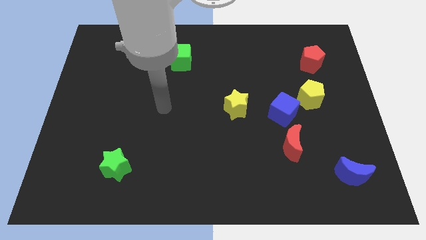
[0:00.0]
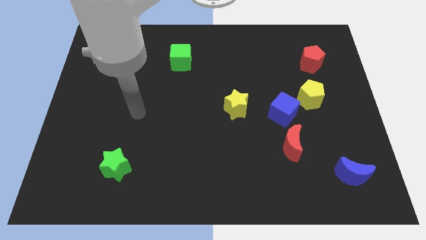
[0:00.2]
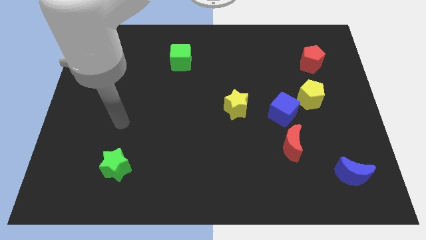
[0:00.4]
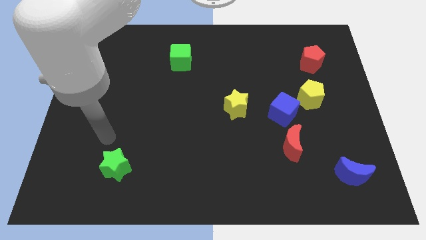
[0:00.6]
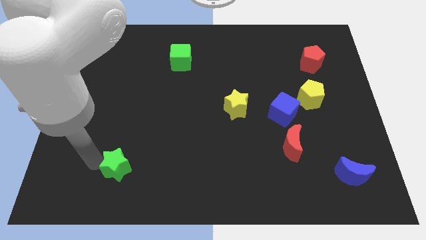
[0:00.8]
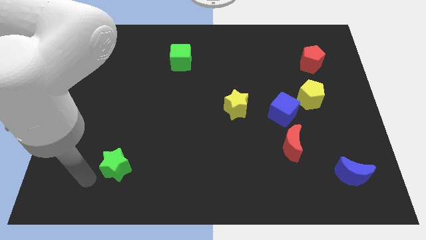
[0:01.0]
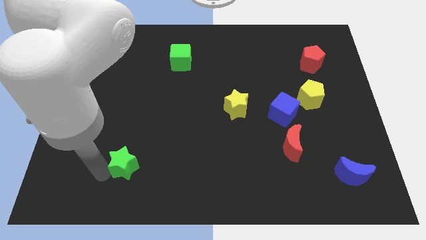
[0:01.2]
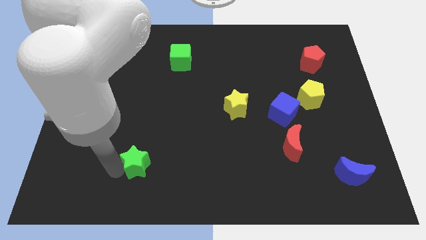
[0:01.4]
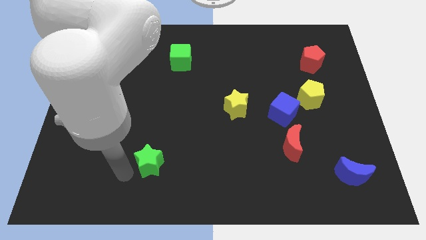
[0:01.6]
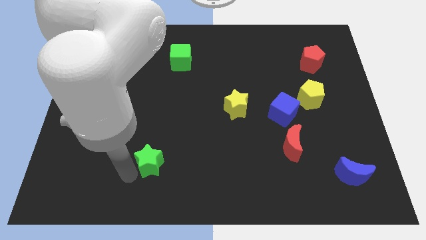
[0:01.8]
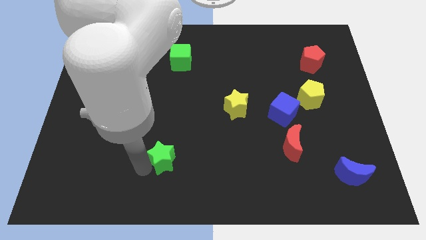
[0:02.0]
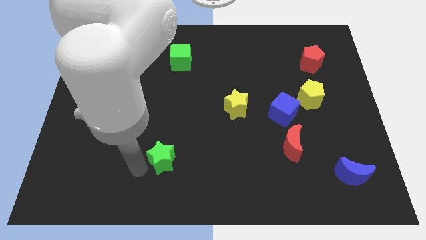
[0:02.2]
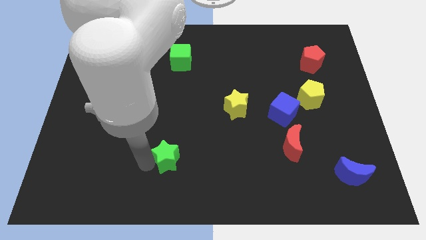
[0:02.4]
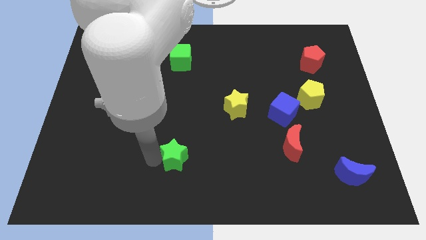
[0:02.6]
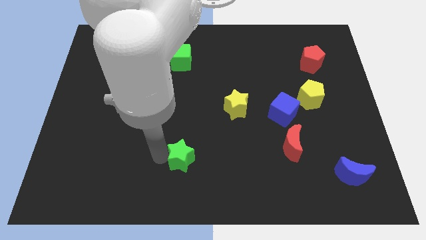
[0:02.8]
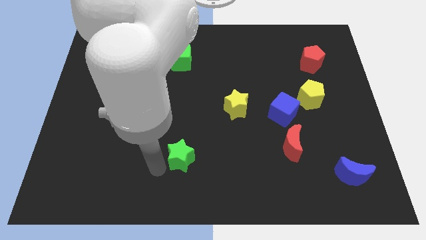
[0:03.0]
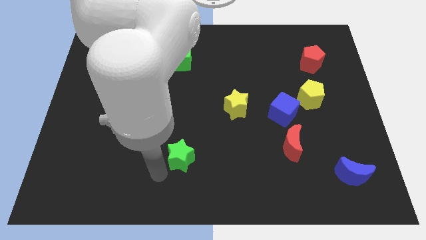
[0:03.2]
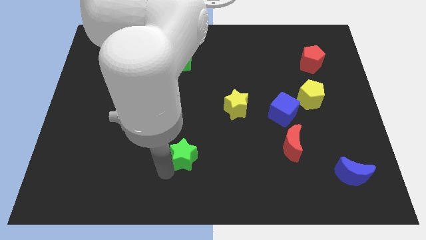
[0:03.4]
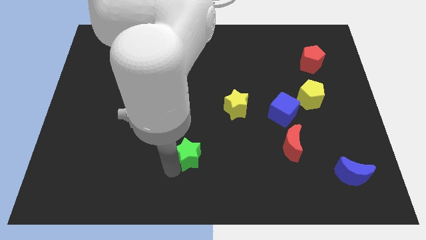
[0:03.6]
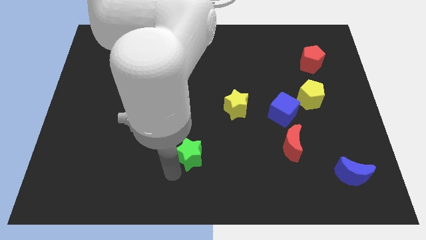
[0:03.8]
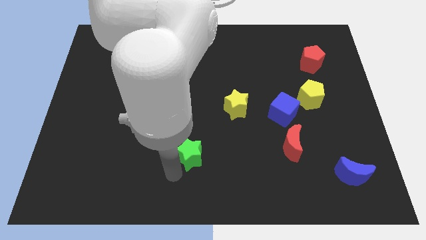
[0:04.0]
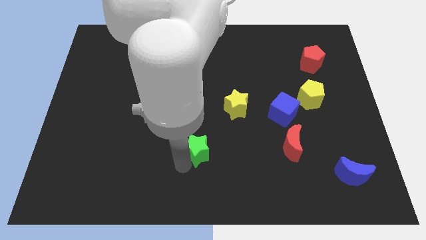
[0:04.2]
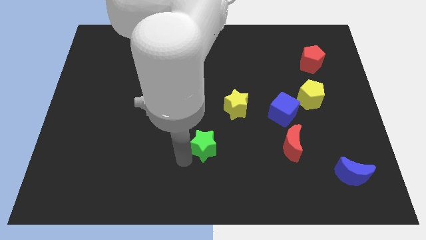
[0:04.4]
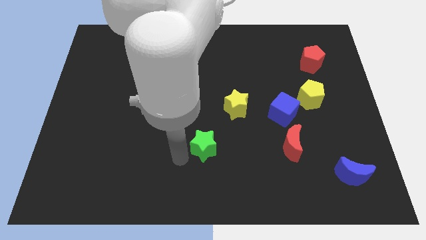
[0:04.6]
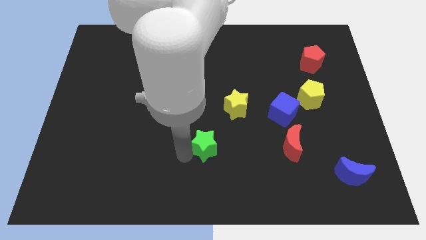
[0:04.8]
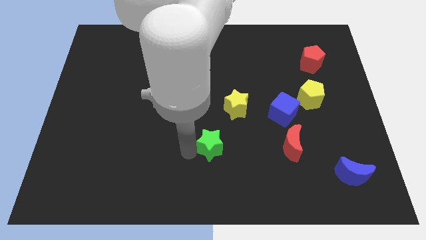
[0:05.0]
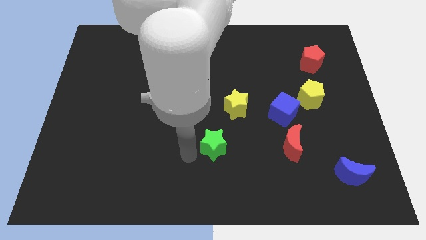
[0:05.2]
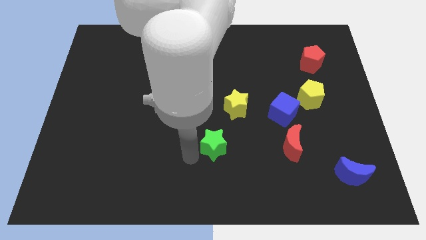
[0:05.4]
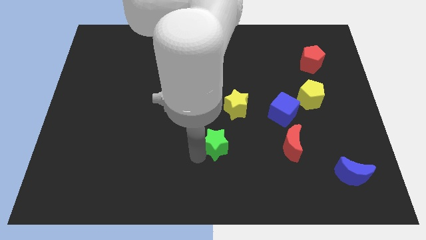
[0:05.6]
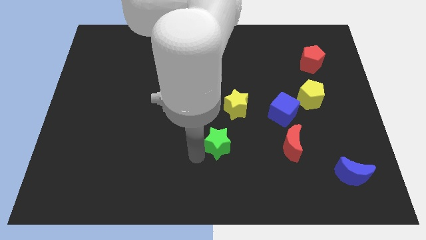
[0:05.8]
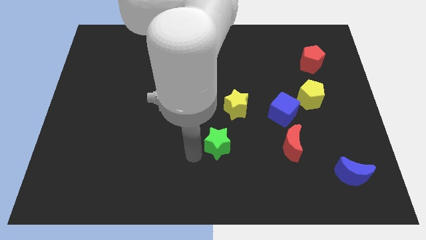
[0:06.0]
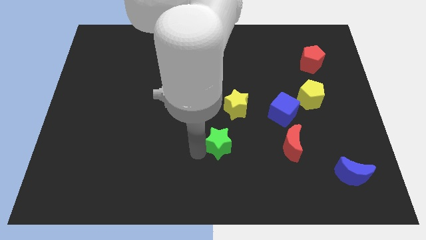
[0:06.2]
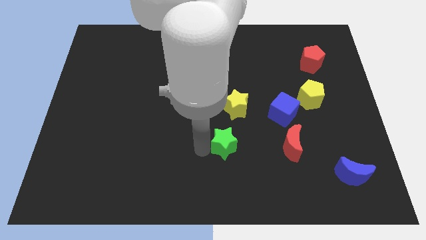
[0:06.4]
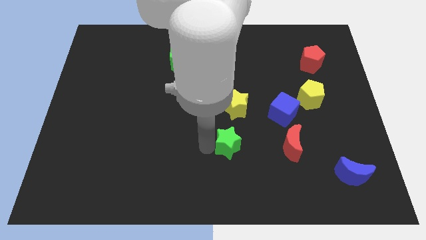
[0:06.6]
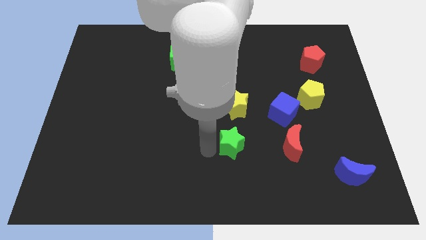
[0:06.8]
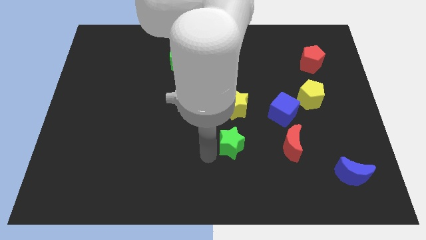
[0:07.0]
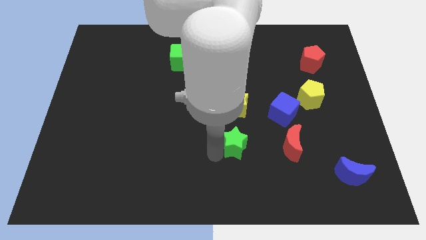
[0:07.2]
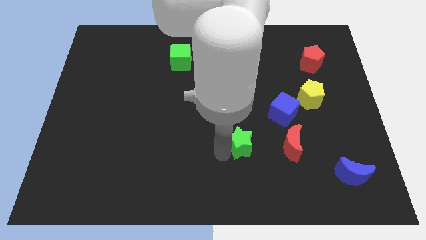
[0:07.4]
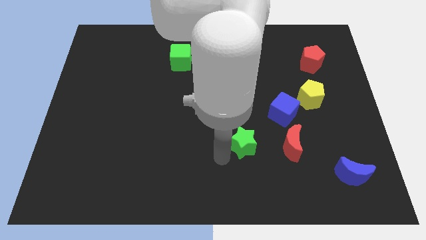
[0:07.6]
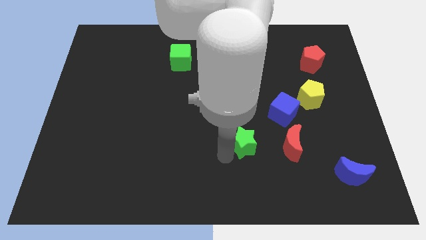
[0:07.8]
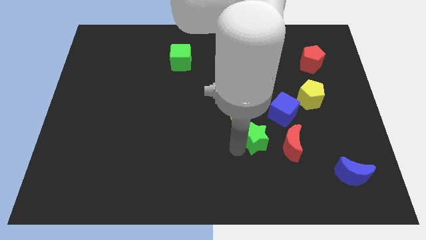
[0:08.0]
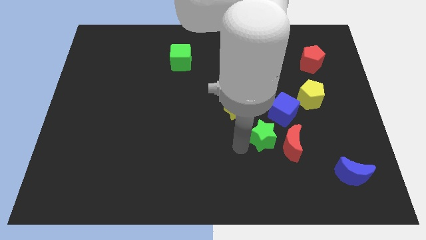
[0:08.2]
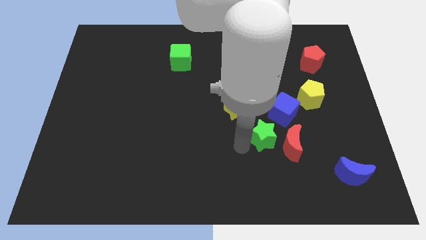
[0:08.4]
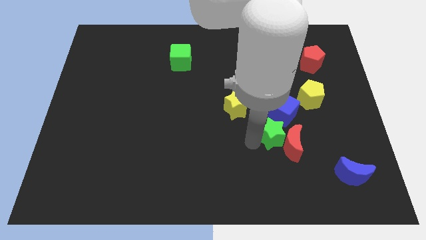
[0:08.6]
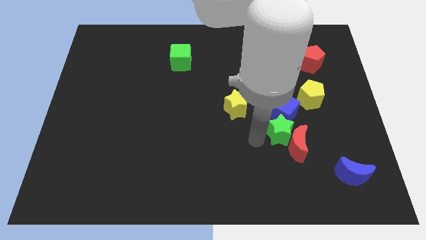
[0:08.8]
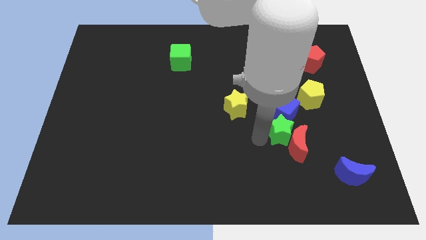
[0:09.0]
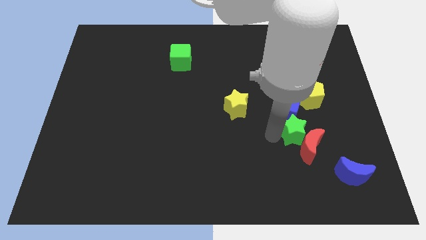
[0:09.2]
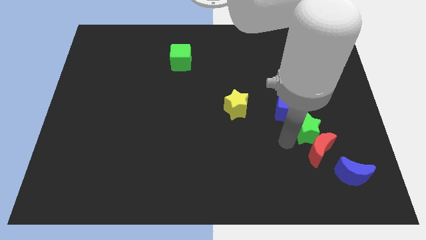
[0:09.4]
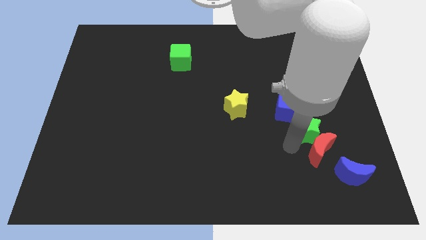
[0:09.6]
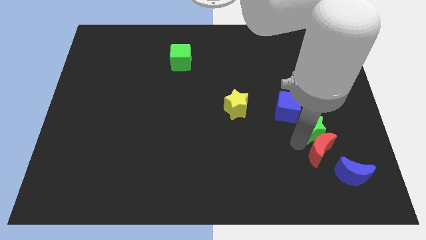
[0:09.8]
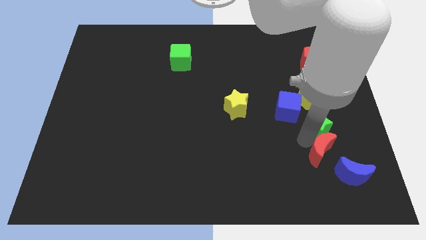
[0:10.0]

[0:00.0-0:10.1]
push the green star to the right side of the blue cube

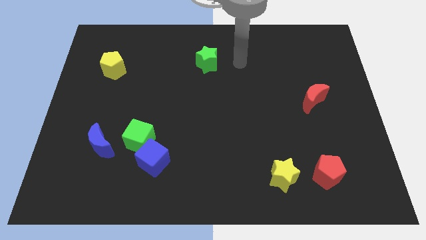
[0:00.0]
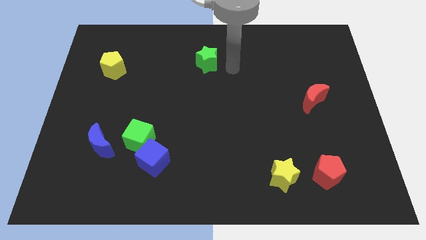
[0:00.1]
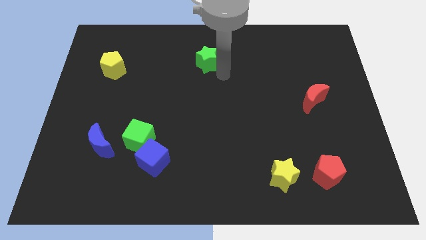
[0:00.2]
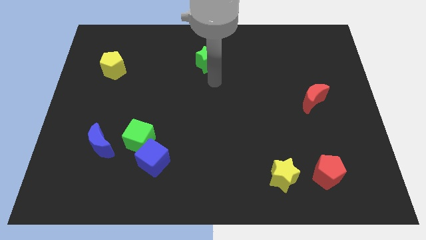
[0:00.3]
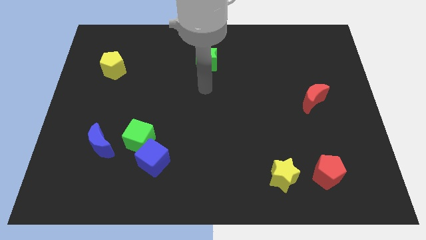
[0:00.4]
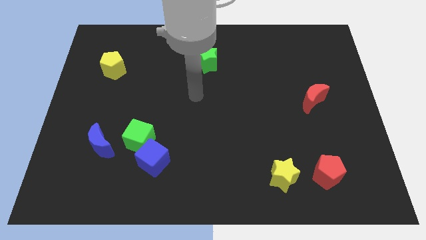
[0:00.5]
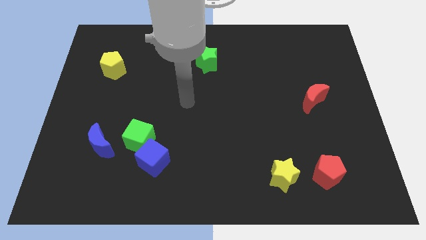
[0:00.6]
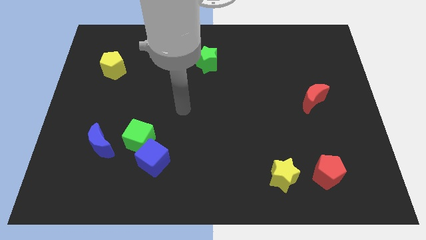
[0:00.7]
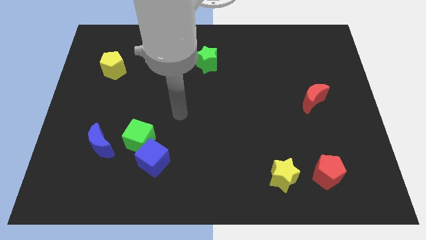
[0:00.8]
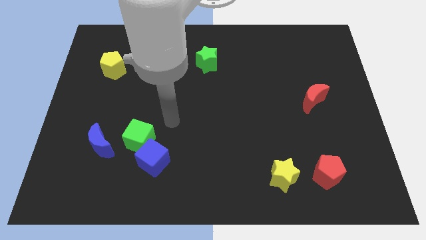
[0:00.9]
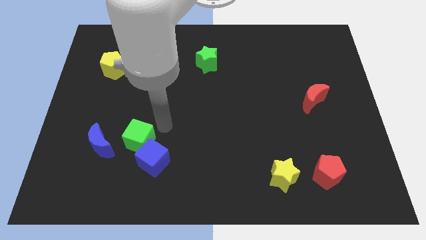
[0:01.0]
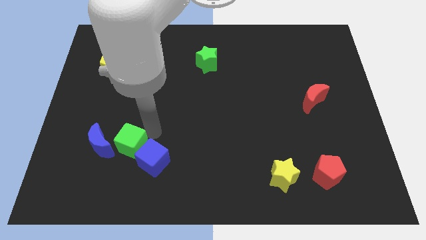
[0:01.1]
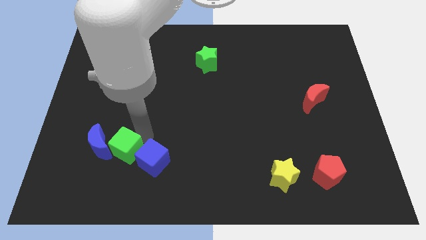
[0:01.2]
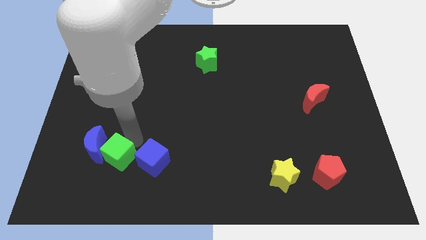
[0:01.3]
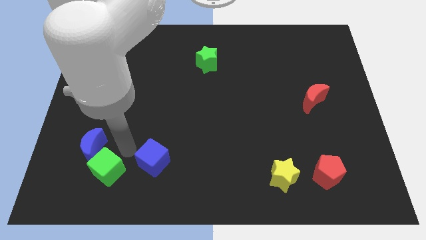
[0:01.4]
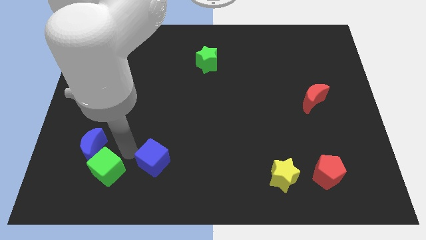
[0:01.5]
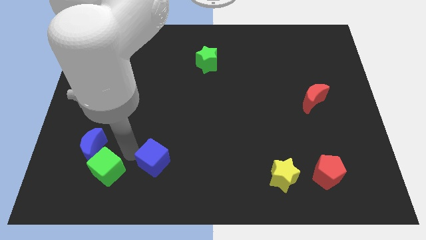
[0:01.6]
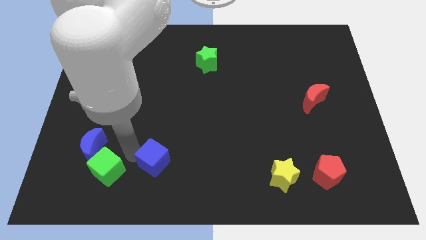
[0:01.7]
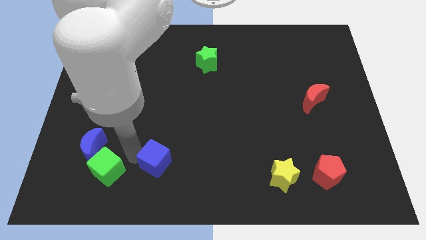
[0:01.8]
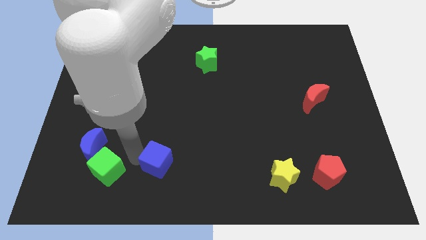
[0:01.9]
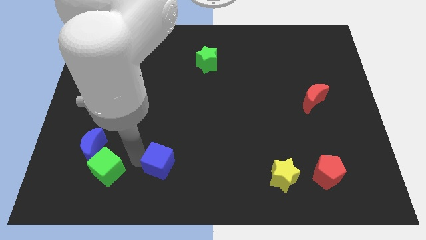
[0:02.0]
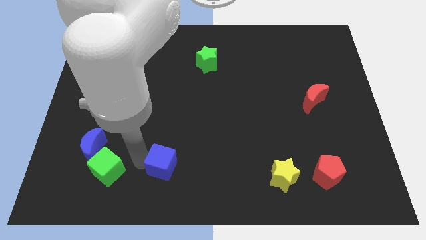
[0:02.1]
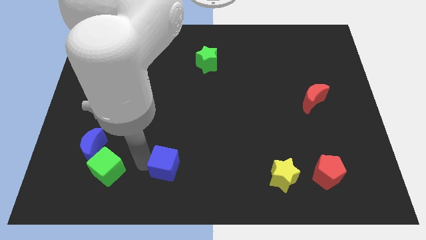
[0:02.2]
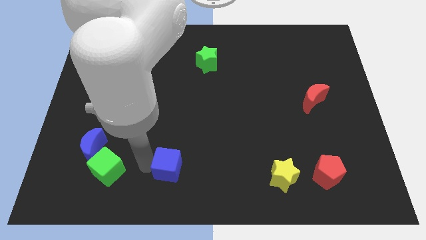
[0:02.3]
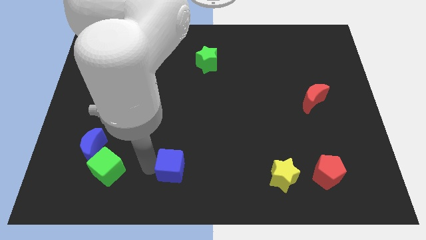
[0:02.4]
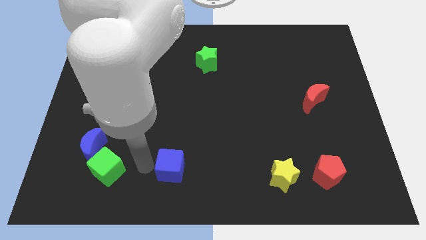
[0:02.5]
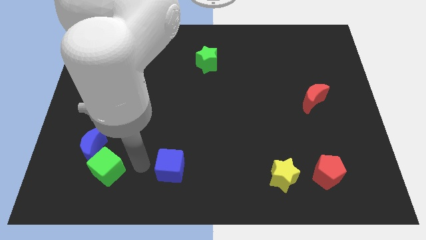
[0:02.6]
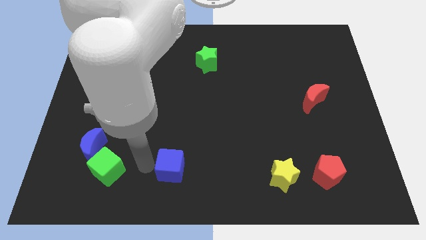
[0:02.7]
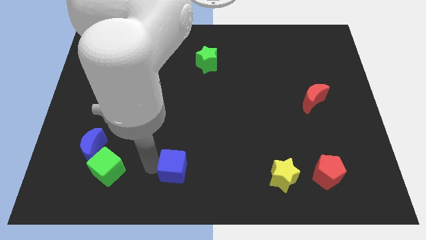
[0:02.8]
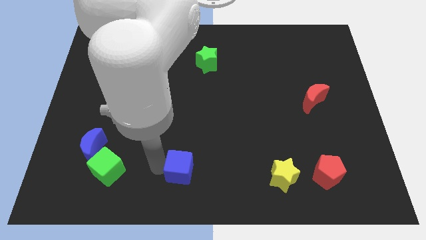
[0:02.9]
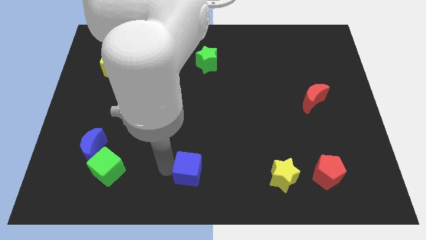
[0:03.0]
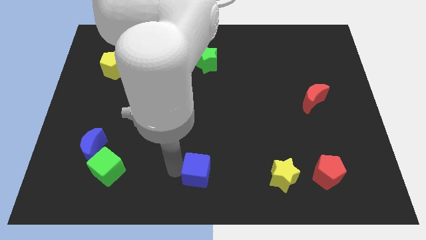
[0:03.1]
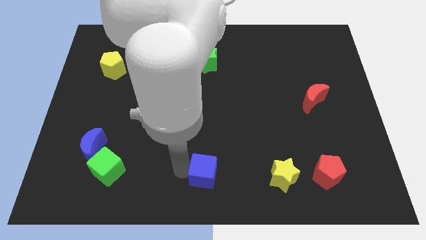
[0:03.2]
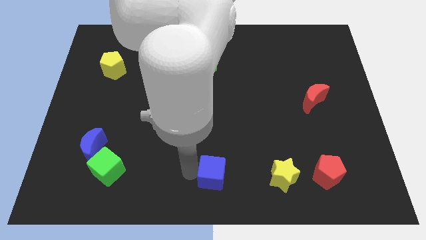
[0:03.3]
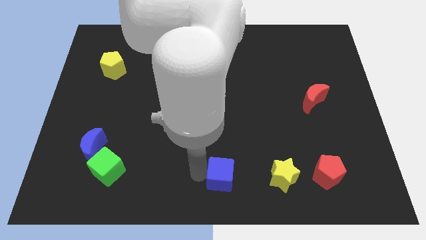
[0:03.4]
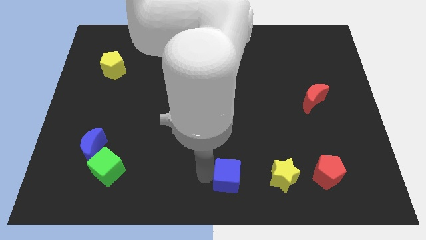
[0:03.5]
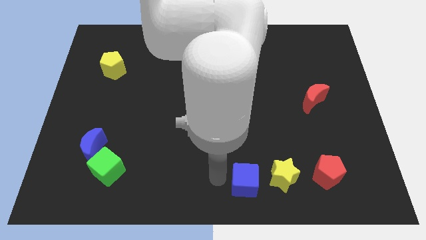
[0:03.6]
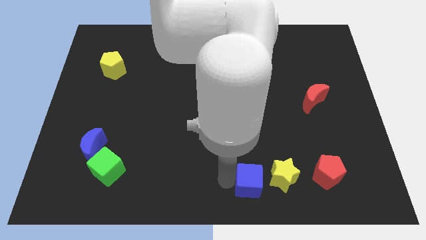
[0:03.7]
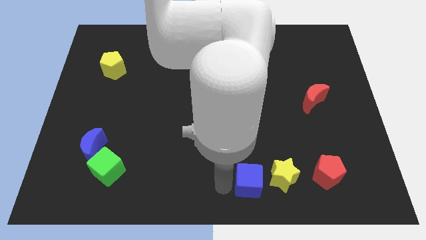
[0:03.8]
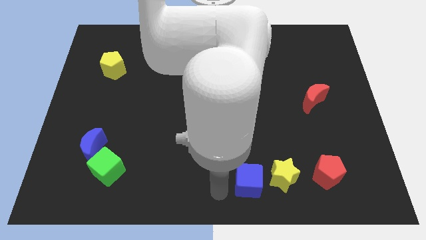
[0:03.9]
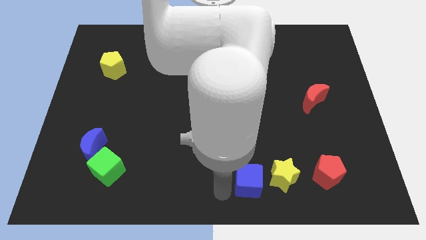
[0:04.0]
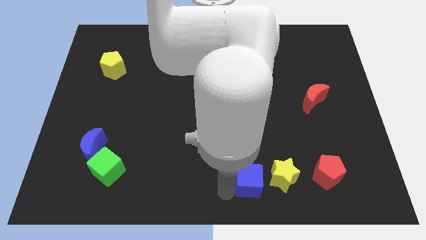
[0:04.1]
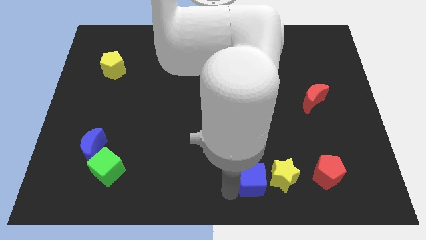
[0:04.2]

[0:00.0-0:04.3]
push the blue cube just left of the red pentagon
